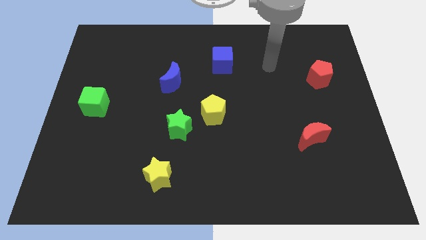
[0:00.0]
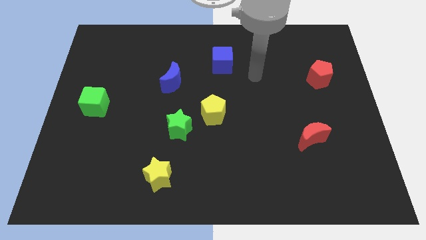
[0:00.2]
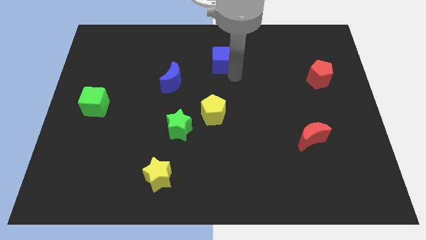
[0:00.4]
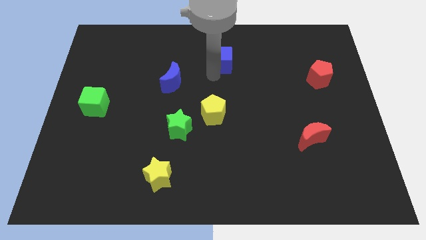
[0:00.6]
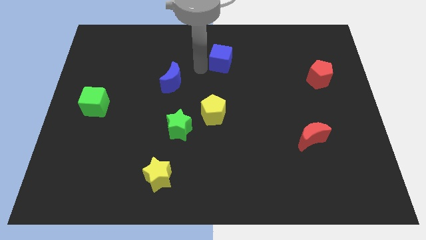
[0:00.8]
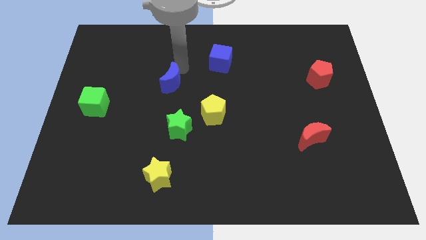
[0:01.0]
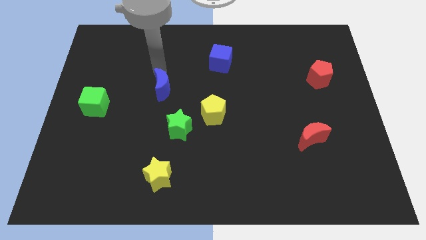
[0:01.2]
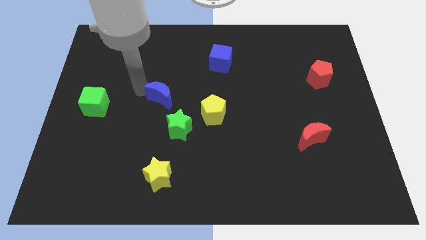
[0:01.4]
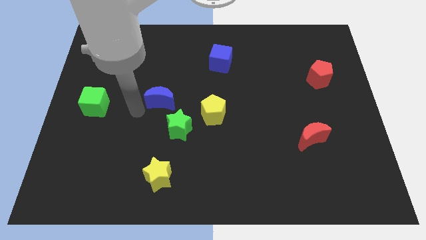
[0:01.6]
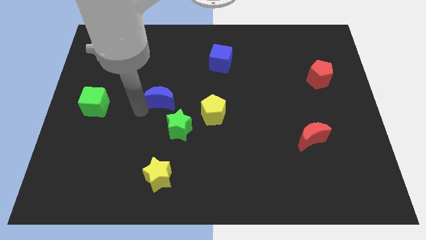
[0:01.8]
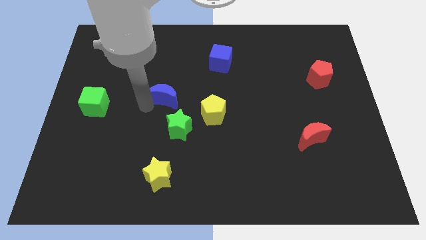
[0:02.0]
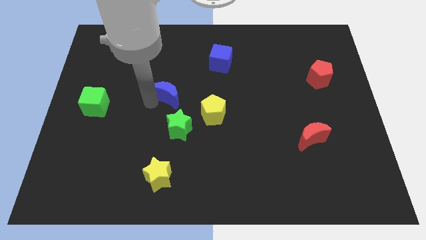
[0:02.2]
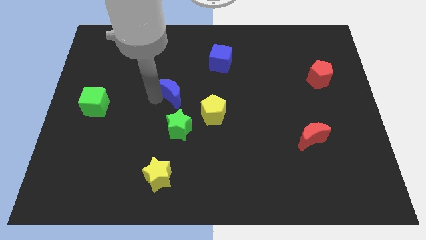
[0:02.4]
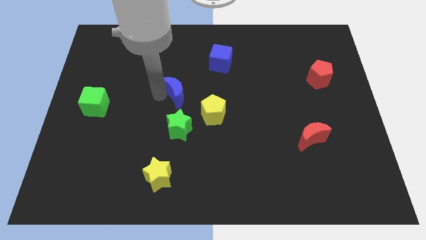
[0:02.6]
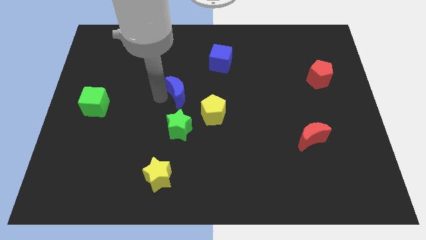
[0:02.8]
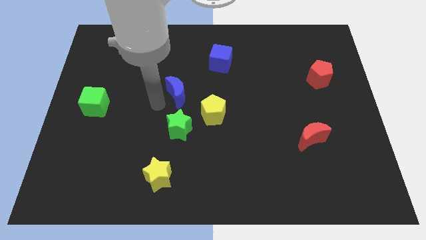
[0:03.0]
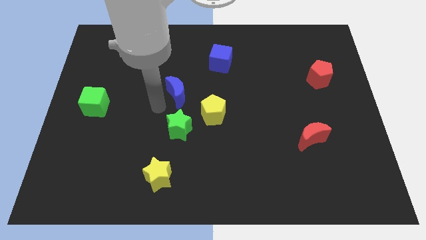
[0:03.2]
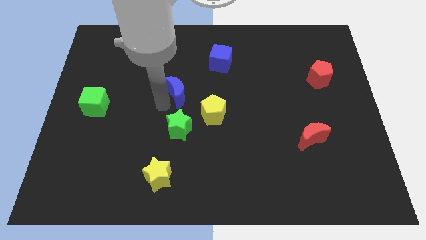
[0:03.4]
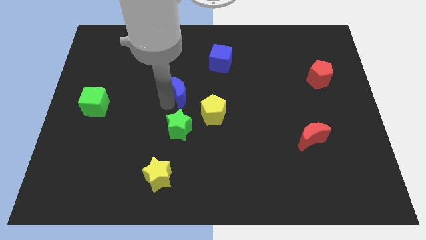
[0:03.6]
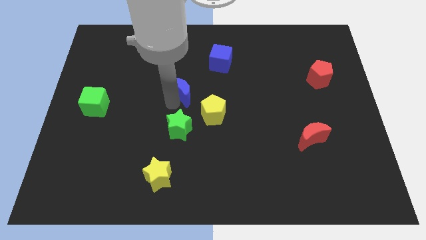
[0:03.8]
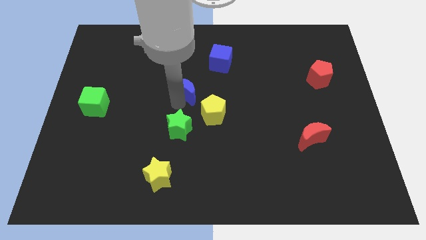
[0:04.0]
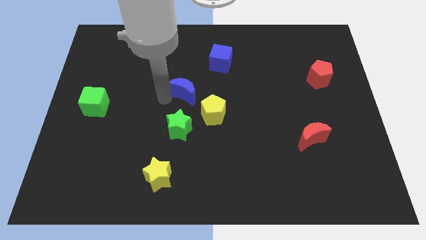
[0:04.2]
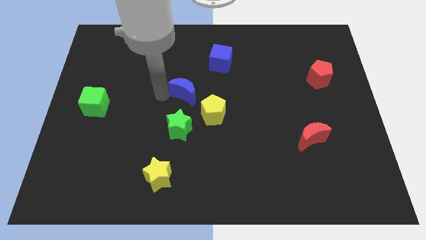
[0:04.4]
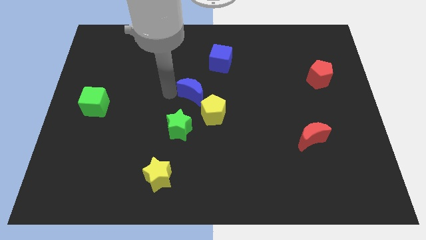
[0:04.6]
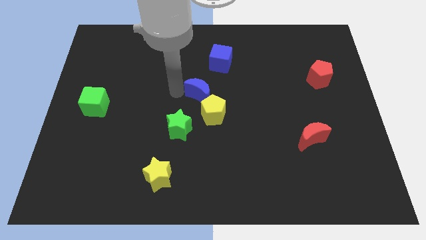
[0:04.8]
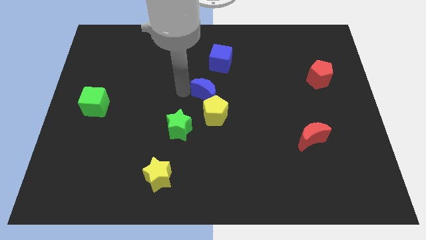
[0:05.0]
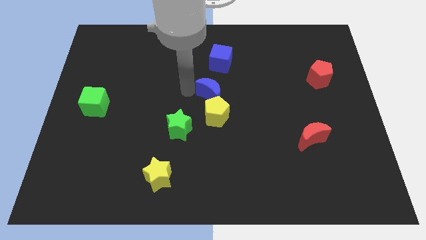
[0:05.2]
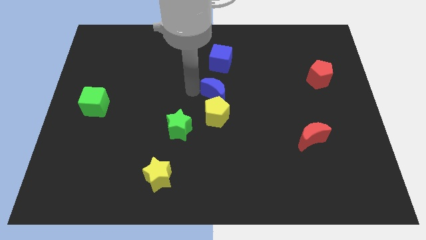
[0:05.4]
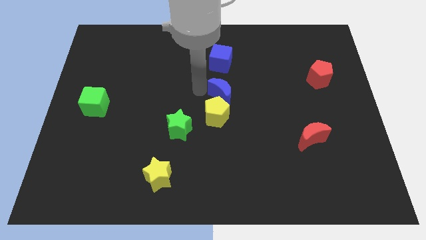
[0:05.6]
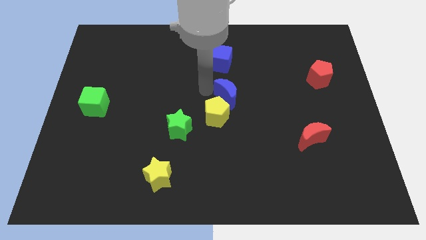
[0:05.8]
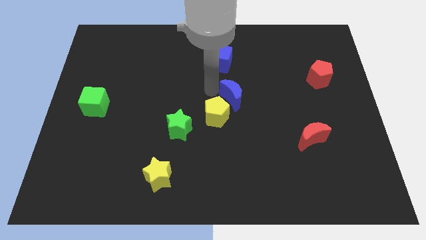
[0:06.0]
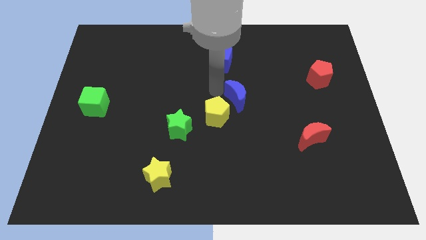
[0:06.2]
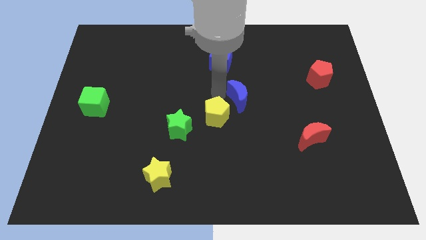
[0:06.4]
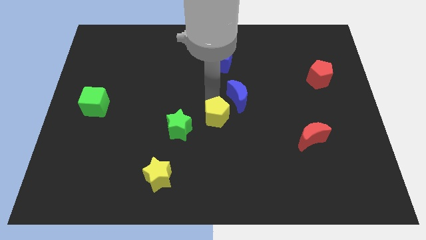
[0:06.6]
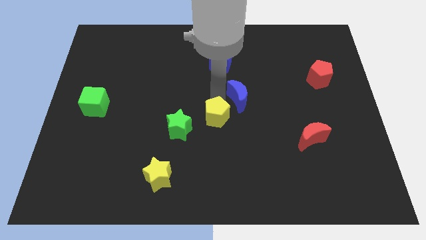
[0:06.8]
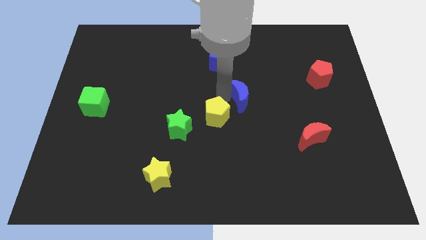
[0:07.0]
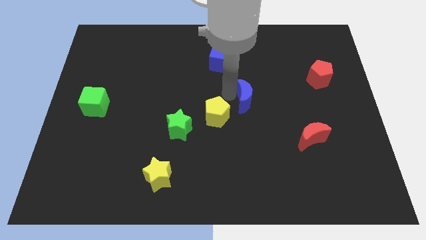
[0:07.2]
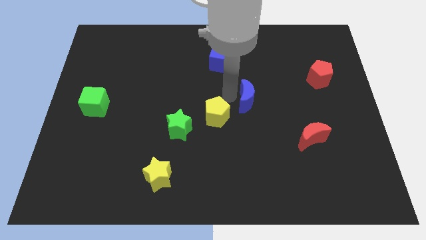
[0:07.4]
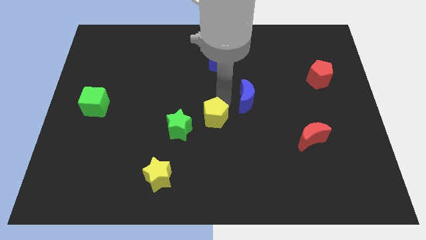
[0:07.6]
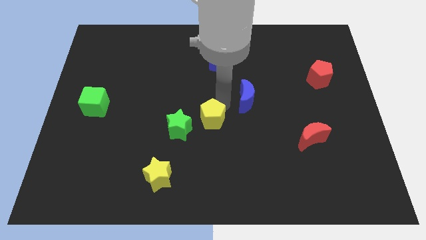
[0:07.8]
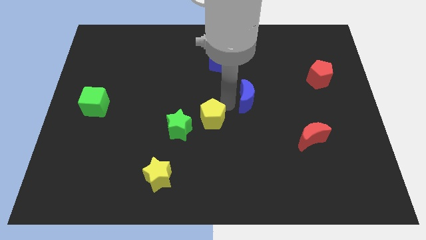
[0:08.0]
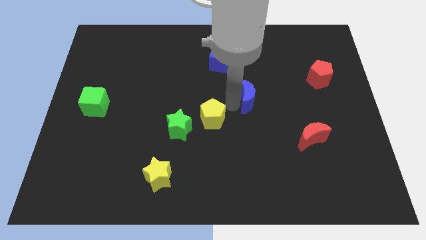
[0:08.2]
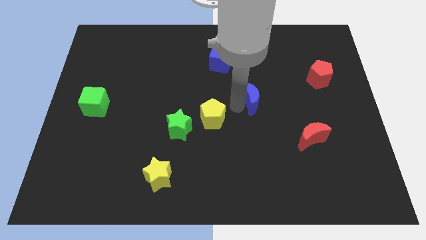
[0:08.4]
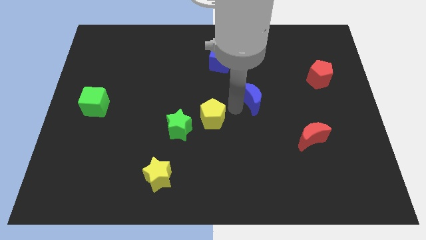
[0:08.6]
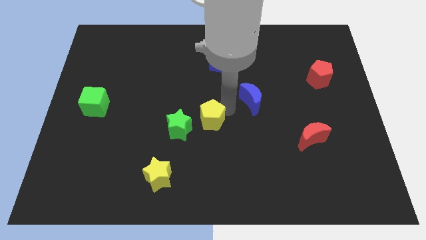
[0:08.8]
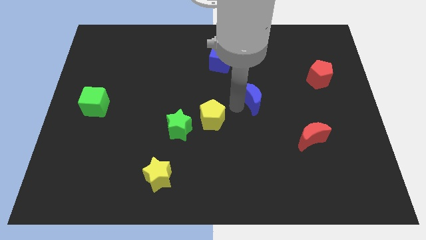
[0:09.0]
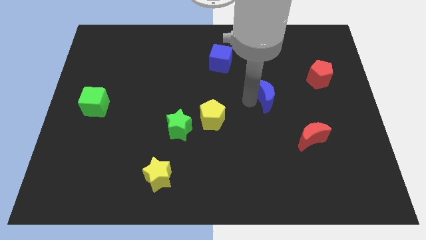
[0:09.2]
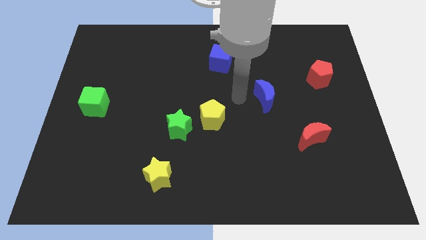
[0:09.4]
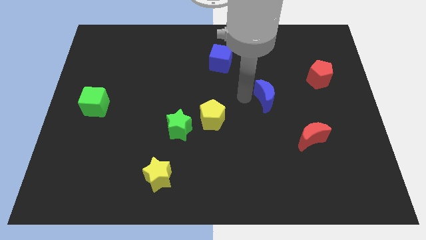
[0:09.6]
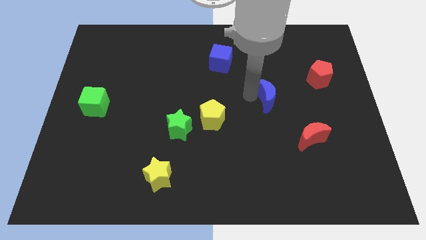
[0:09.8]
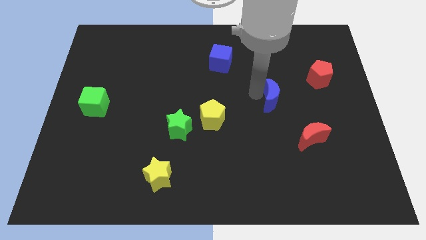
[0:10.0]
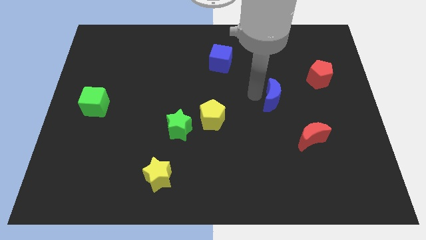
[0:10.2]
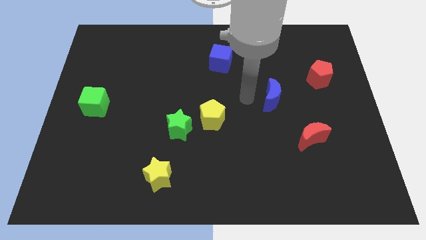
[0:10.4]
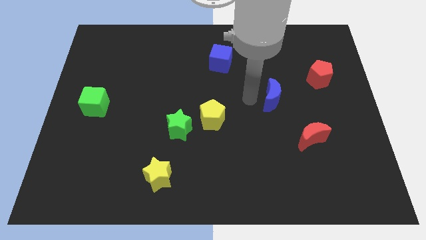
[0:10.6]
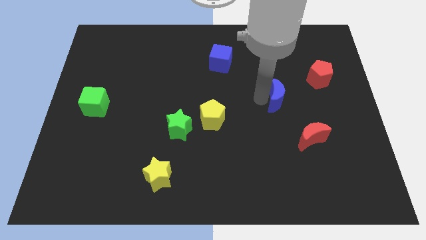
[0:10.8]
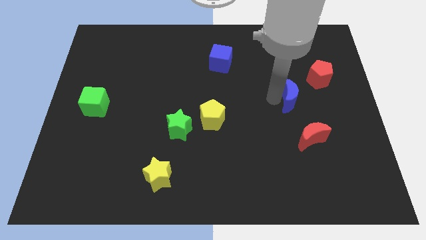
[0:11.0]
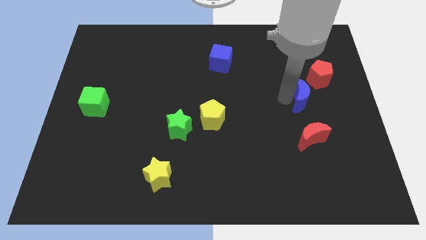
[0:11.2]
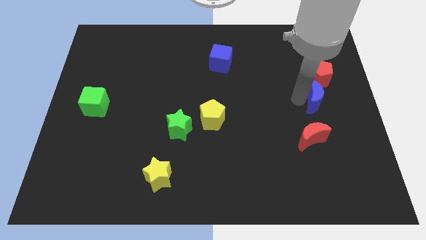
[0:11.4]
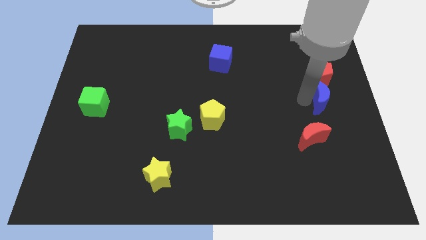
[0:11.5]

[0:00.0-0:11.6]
put the blue moon to the right side of the board

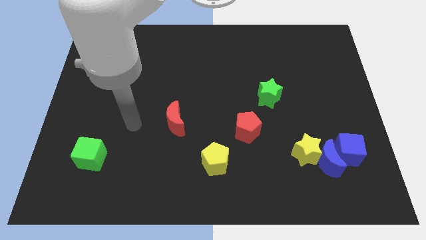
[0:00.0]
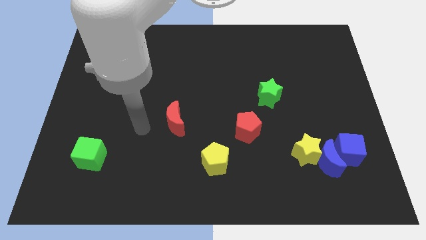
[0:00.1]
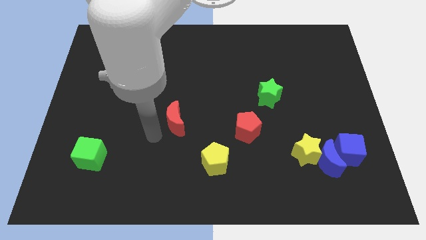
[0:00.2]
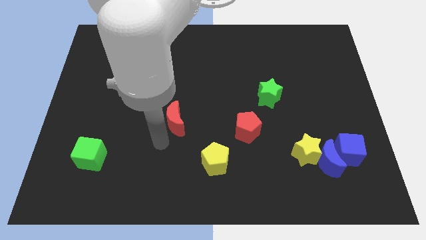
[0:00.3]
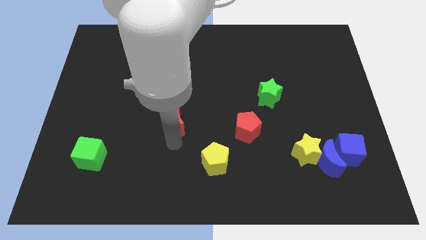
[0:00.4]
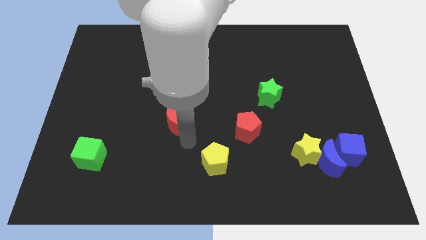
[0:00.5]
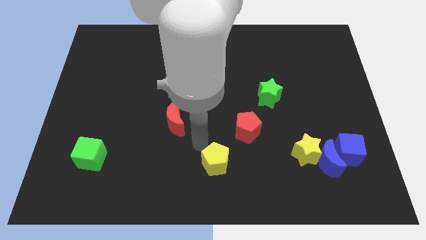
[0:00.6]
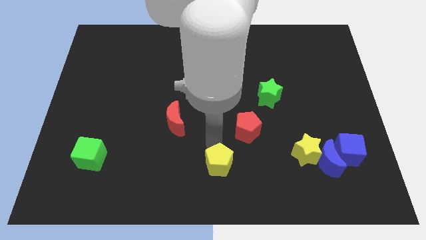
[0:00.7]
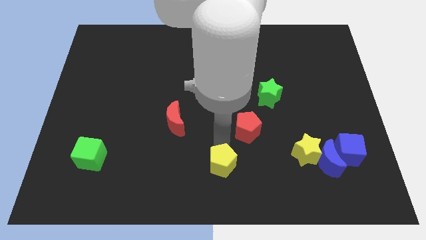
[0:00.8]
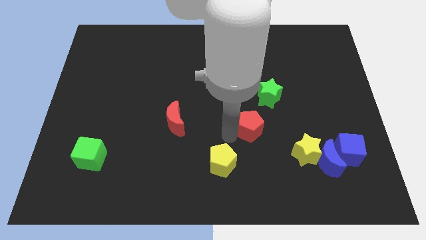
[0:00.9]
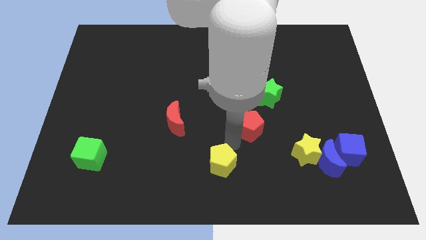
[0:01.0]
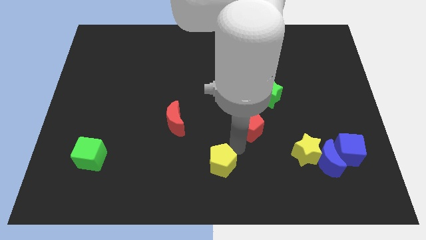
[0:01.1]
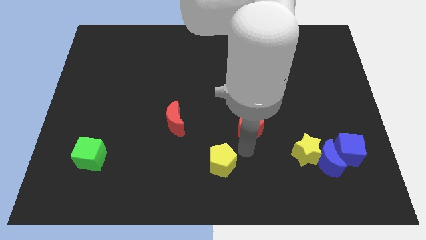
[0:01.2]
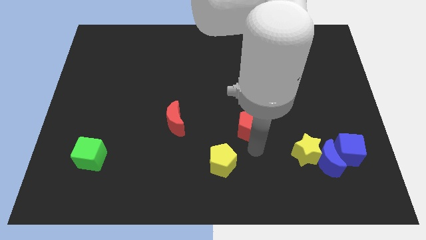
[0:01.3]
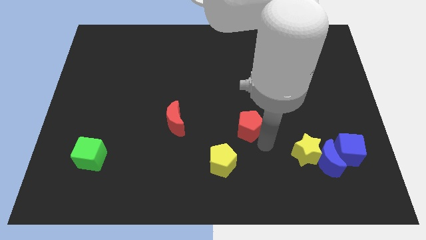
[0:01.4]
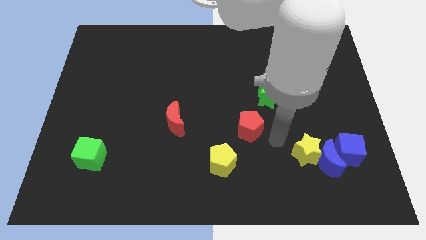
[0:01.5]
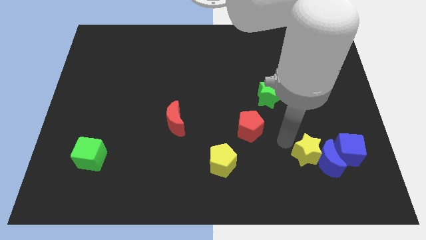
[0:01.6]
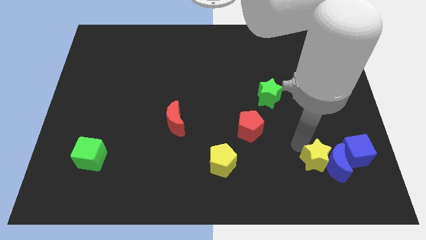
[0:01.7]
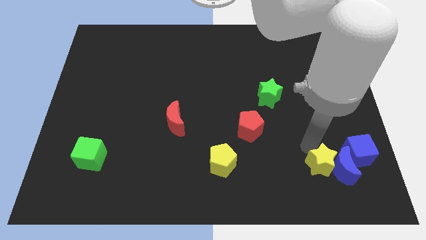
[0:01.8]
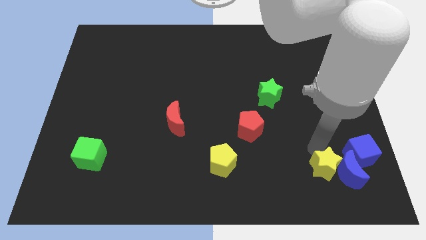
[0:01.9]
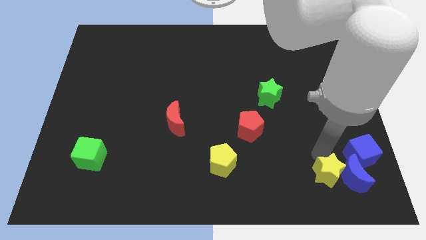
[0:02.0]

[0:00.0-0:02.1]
slide the blue moon to the bottom right
